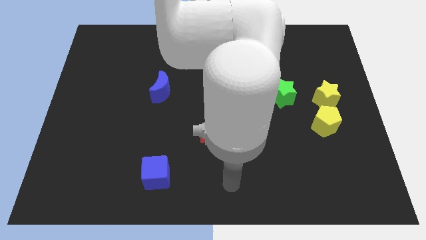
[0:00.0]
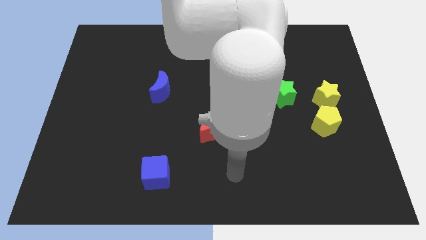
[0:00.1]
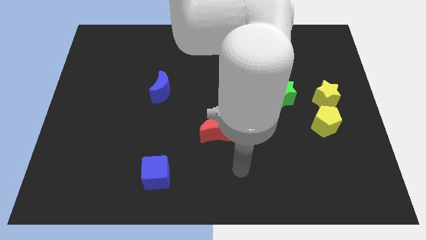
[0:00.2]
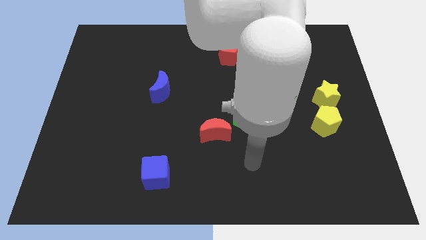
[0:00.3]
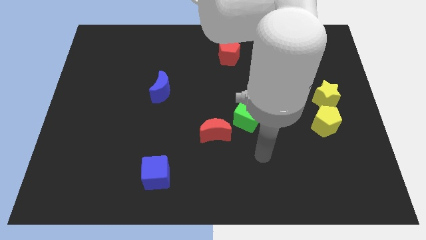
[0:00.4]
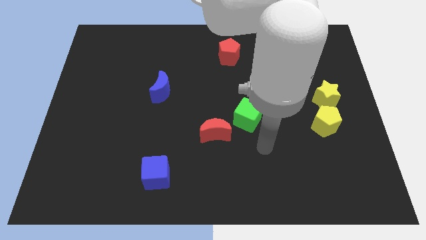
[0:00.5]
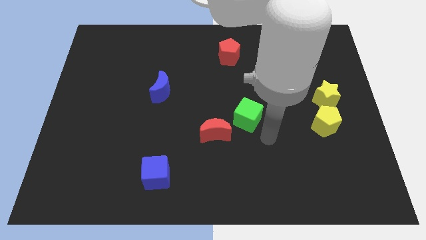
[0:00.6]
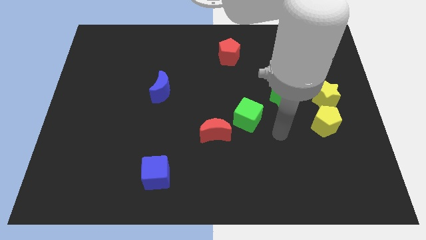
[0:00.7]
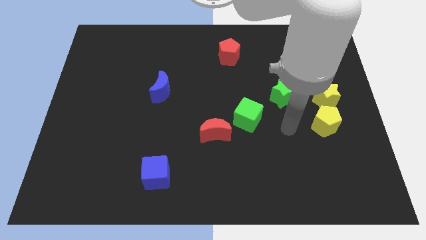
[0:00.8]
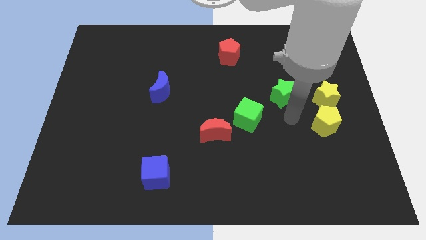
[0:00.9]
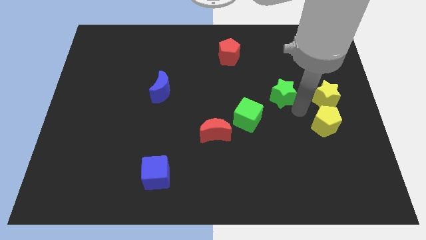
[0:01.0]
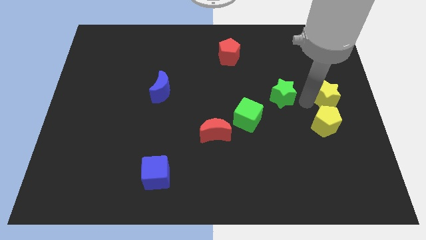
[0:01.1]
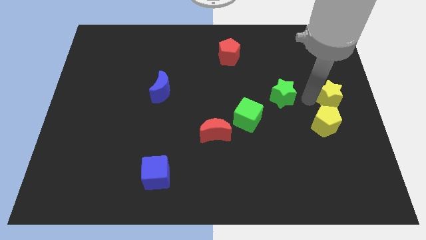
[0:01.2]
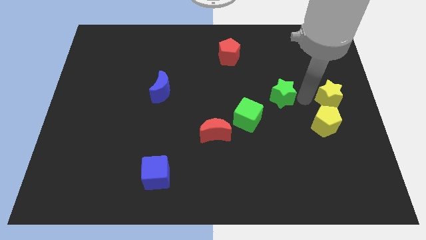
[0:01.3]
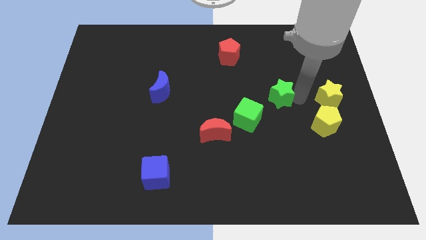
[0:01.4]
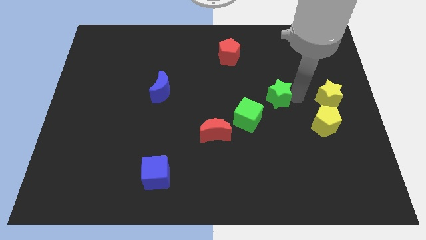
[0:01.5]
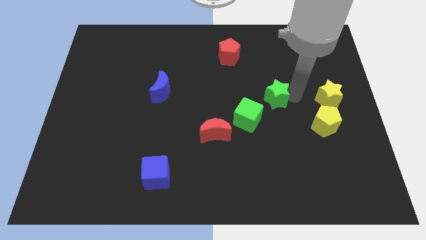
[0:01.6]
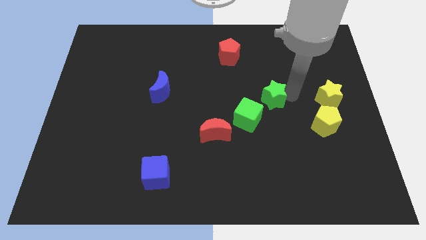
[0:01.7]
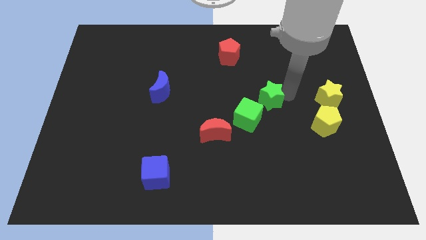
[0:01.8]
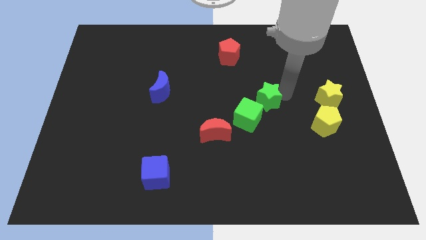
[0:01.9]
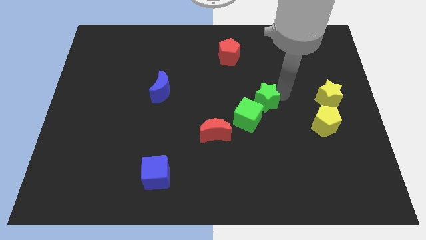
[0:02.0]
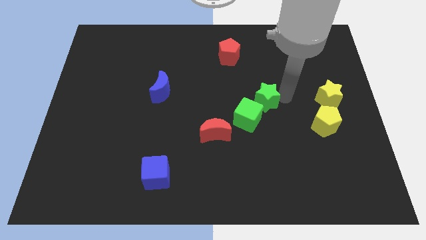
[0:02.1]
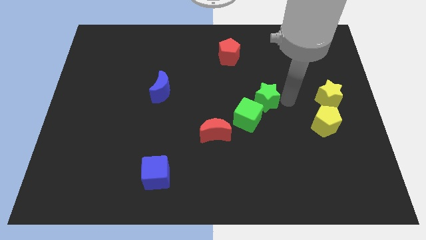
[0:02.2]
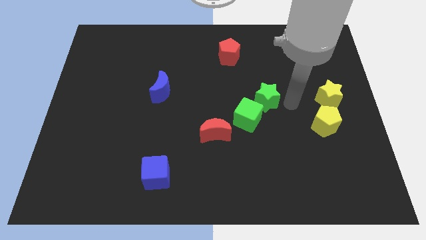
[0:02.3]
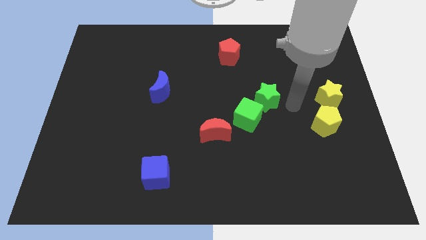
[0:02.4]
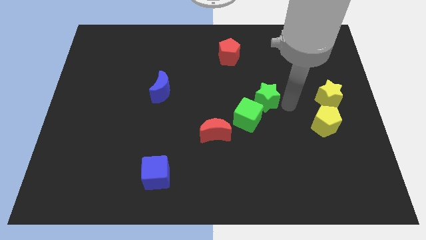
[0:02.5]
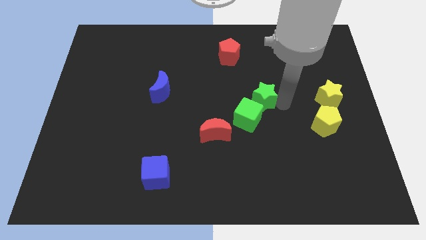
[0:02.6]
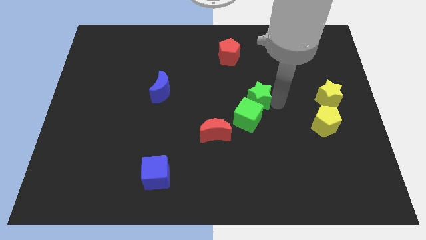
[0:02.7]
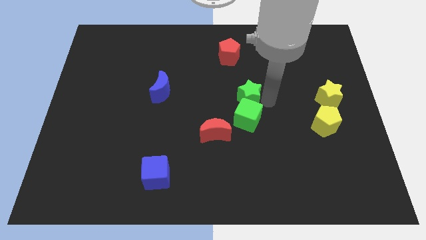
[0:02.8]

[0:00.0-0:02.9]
push the green star to the left a little bit

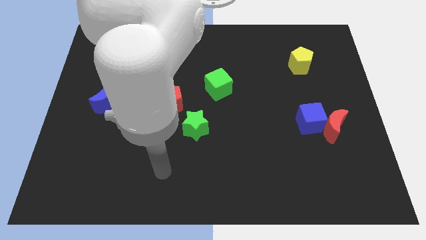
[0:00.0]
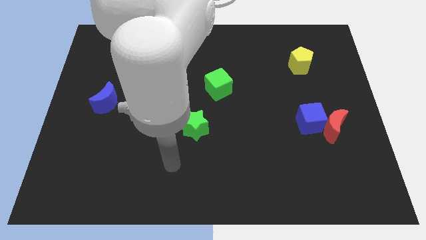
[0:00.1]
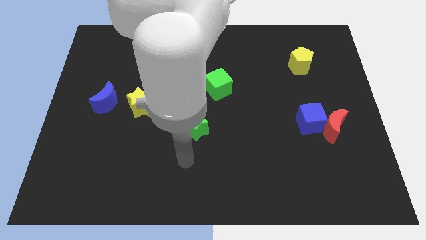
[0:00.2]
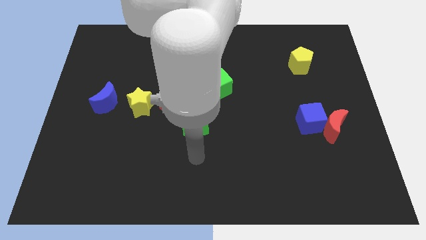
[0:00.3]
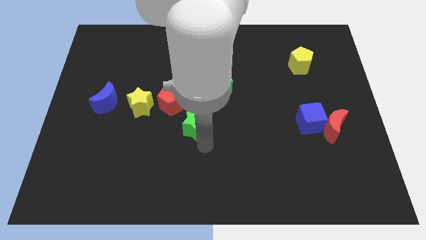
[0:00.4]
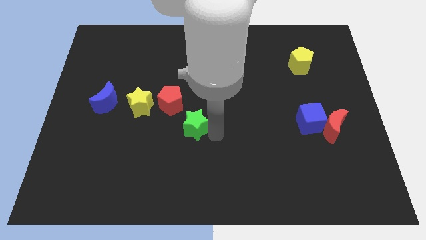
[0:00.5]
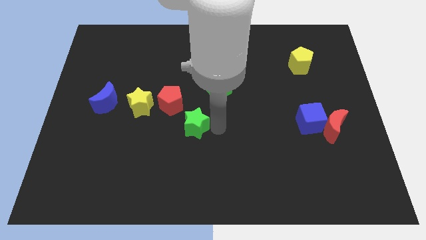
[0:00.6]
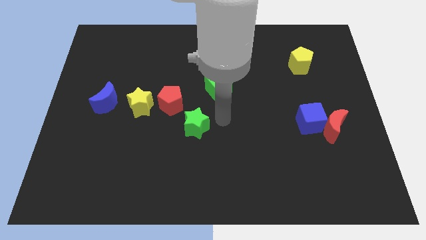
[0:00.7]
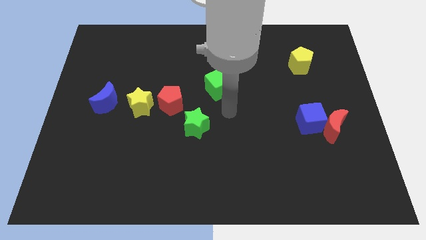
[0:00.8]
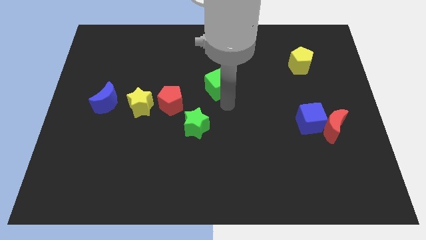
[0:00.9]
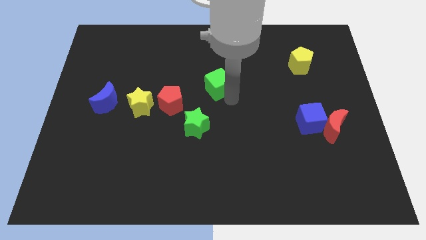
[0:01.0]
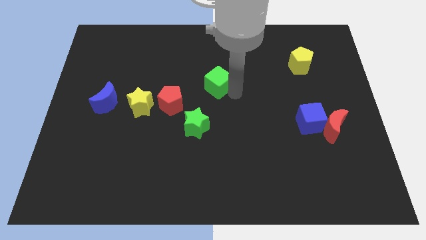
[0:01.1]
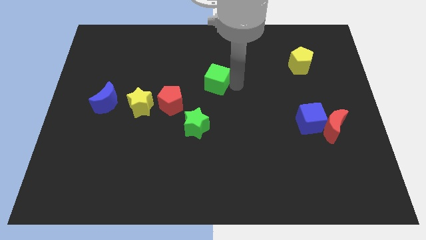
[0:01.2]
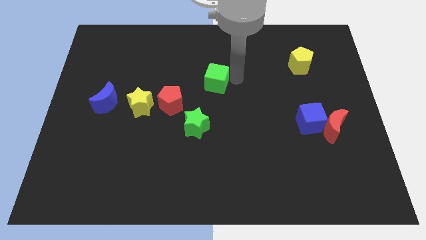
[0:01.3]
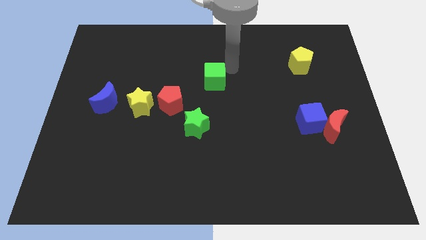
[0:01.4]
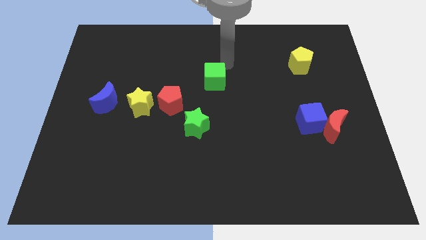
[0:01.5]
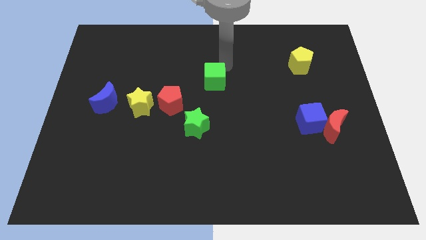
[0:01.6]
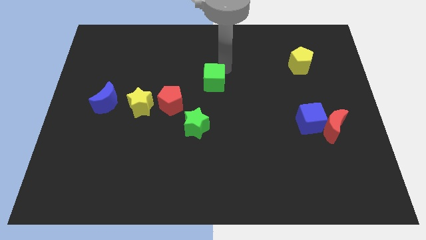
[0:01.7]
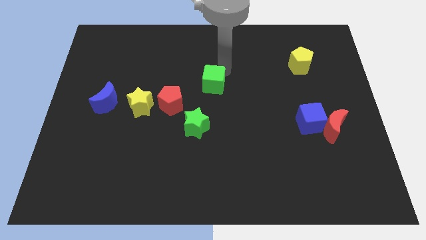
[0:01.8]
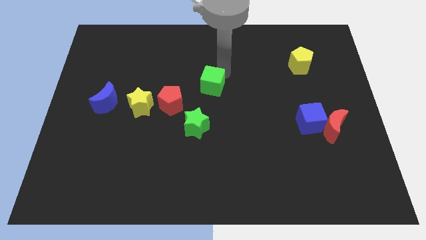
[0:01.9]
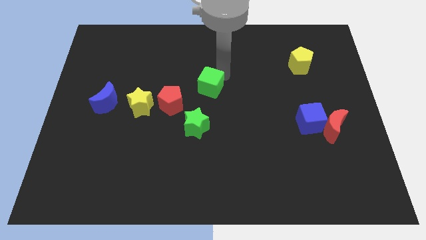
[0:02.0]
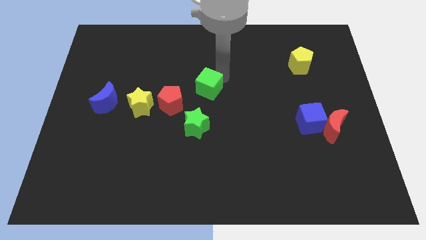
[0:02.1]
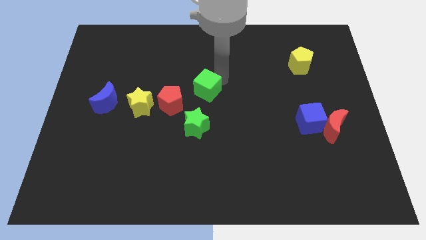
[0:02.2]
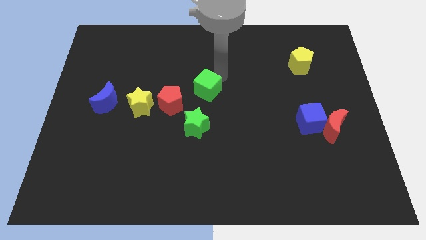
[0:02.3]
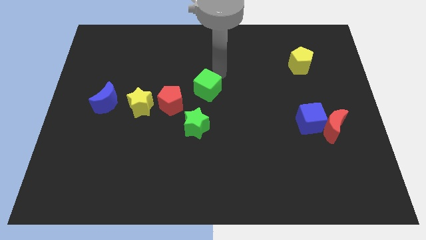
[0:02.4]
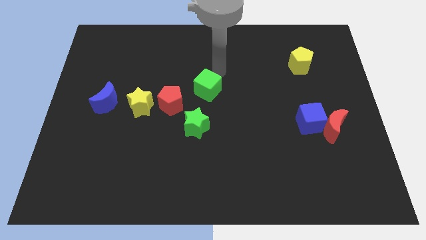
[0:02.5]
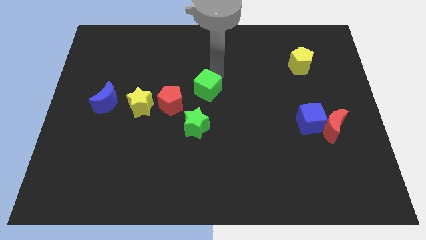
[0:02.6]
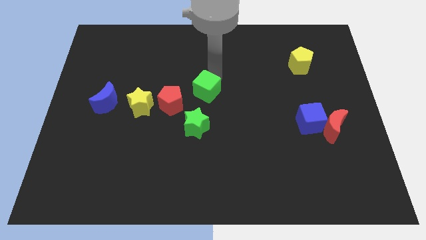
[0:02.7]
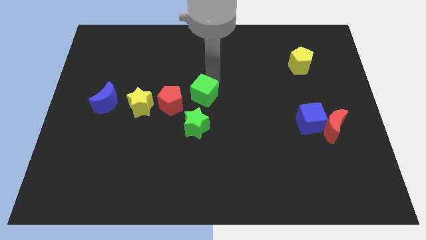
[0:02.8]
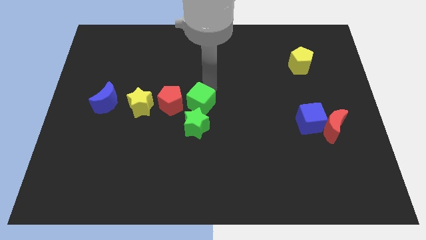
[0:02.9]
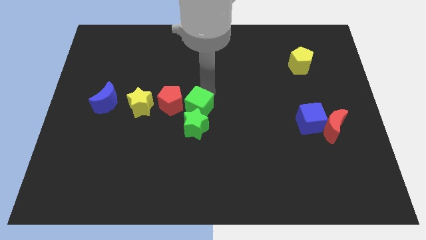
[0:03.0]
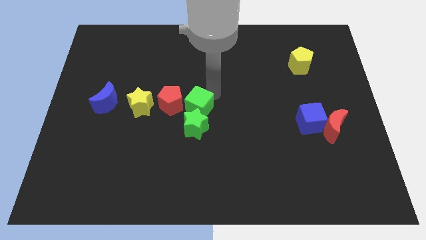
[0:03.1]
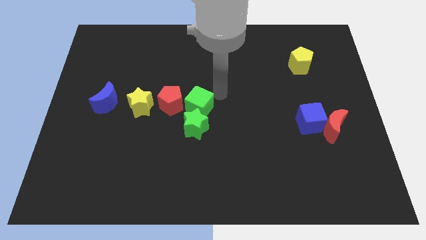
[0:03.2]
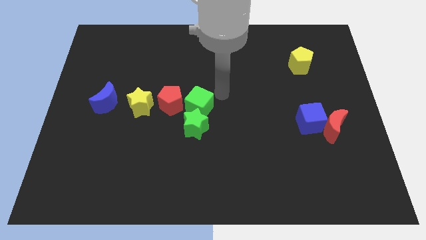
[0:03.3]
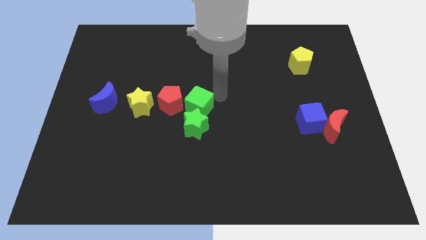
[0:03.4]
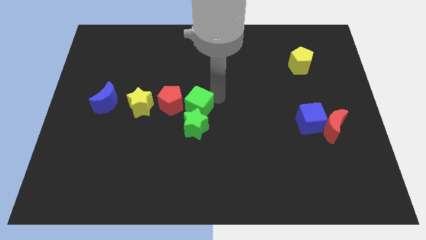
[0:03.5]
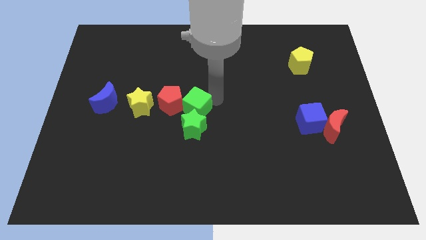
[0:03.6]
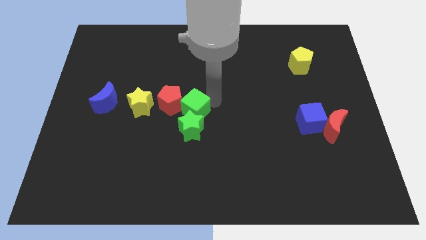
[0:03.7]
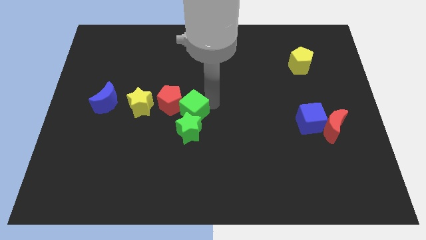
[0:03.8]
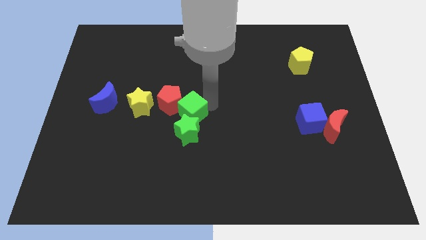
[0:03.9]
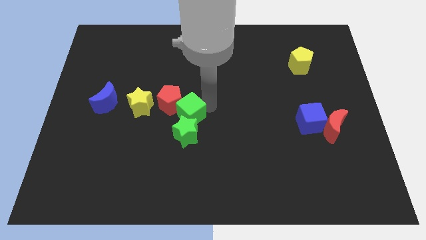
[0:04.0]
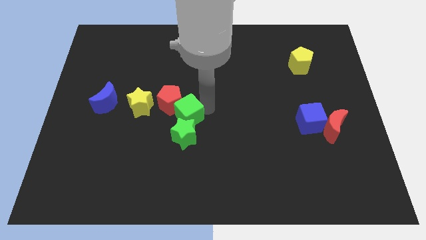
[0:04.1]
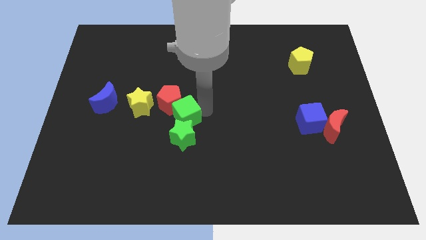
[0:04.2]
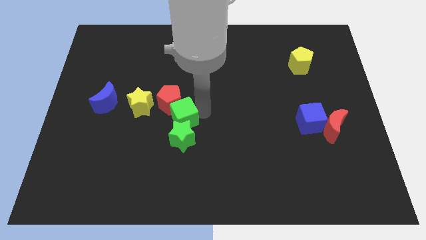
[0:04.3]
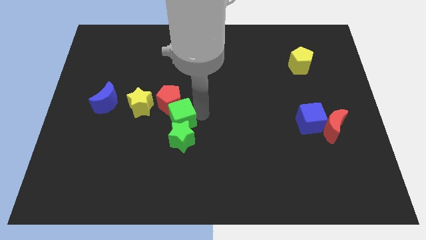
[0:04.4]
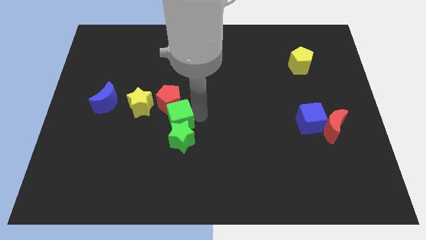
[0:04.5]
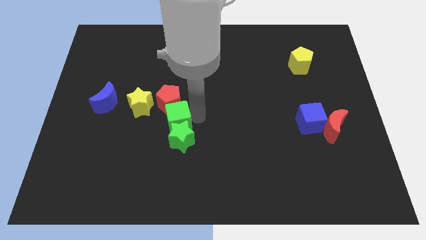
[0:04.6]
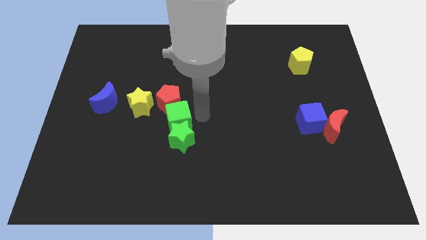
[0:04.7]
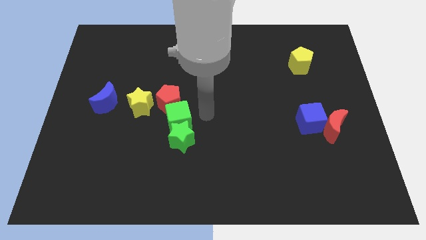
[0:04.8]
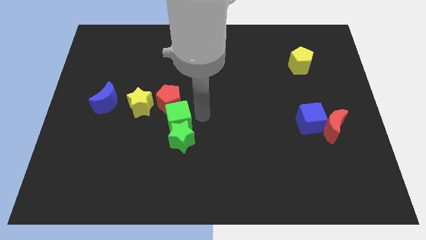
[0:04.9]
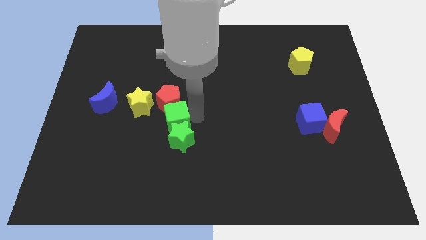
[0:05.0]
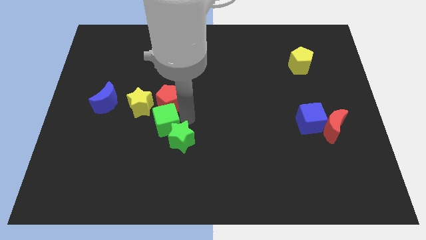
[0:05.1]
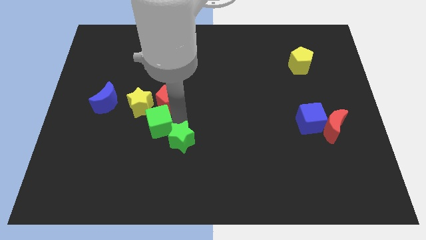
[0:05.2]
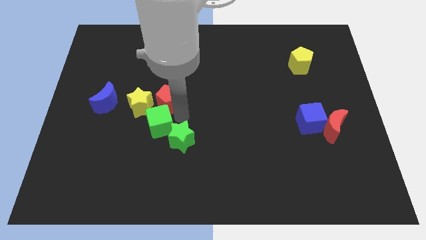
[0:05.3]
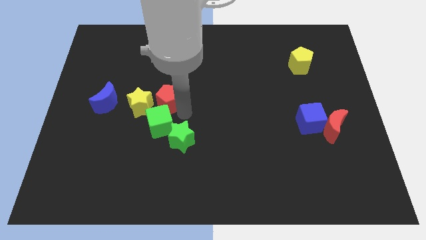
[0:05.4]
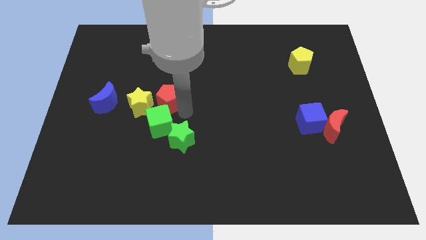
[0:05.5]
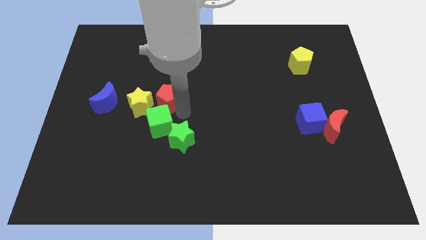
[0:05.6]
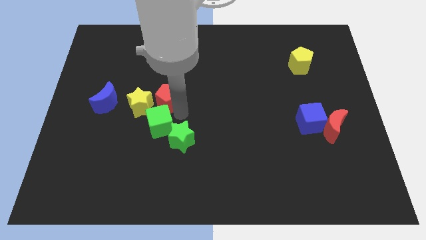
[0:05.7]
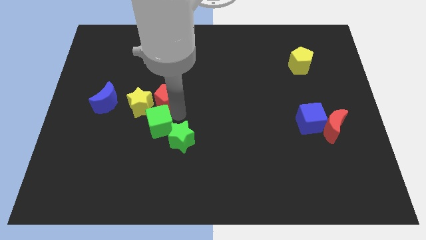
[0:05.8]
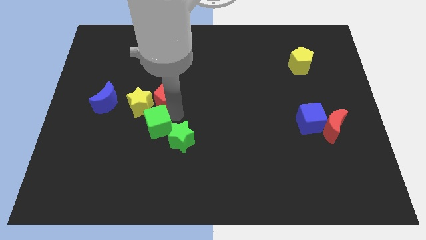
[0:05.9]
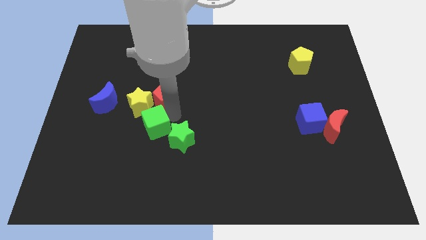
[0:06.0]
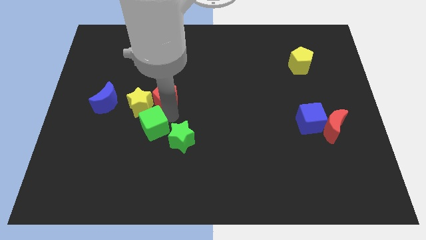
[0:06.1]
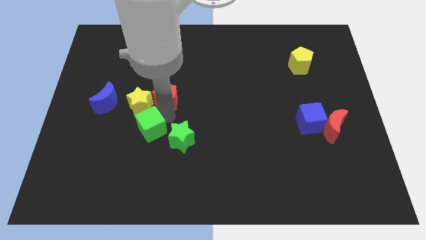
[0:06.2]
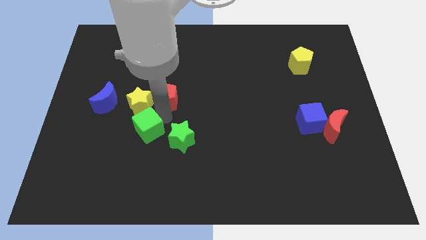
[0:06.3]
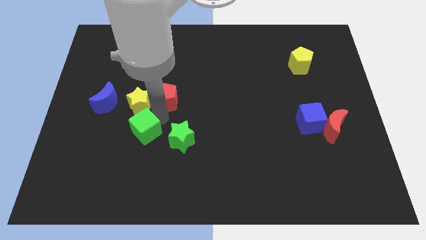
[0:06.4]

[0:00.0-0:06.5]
push the green cube downwards and to the left diagonally
